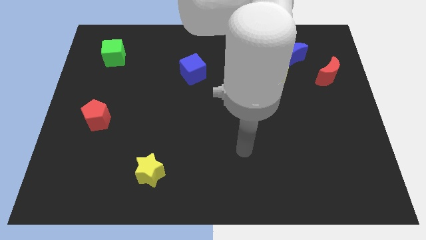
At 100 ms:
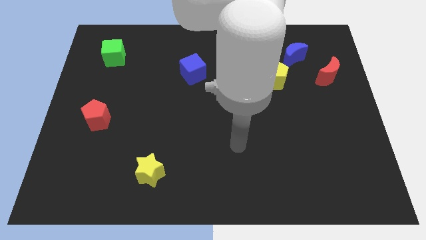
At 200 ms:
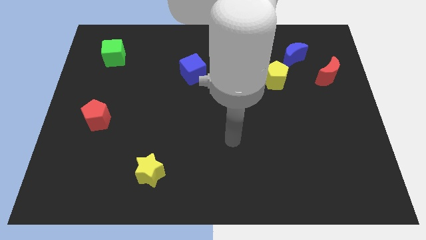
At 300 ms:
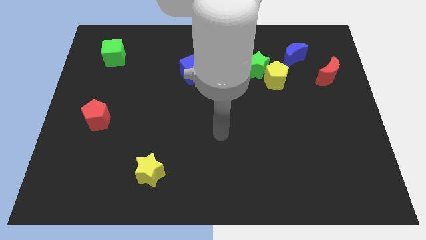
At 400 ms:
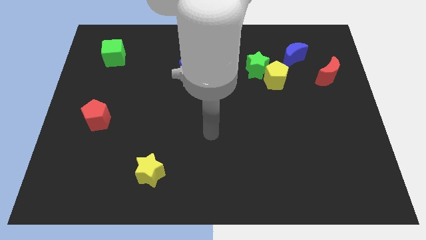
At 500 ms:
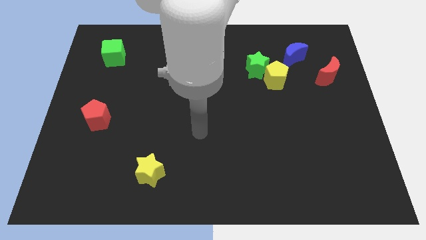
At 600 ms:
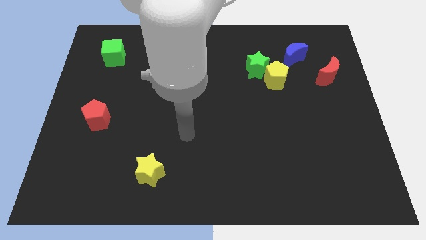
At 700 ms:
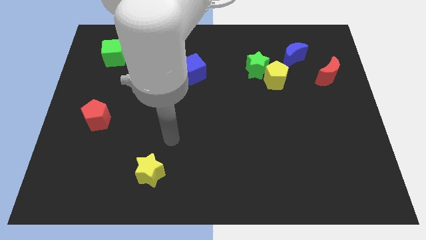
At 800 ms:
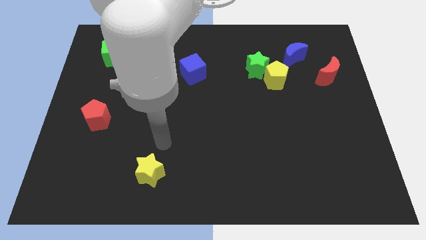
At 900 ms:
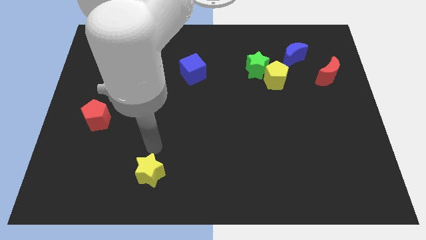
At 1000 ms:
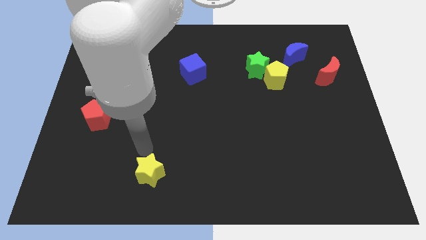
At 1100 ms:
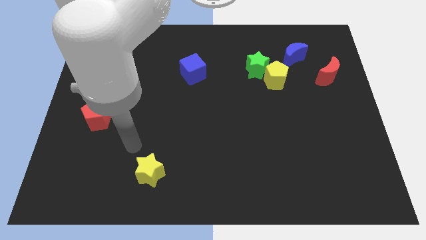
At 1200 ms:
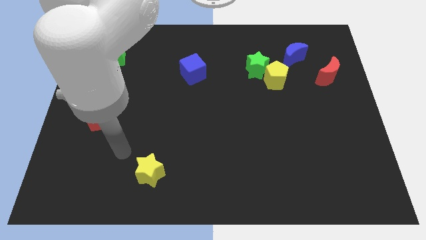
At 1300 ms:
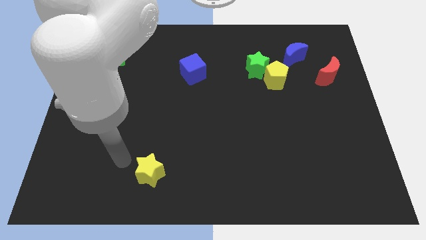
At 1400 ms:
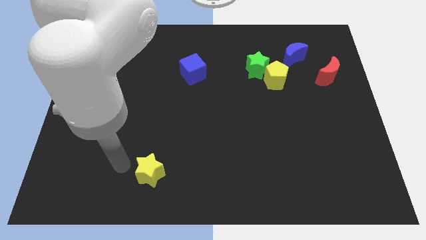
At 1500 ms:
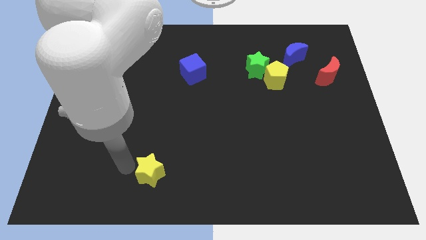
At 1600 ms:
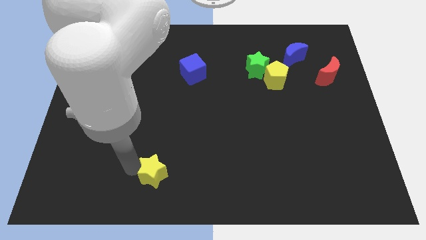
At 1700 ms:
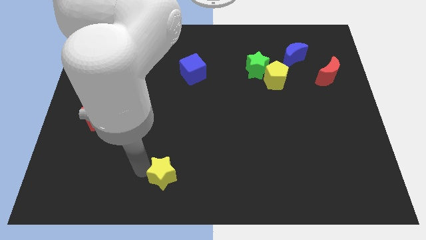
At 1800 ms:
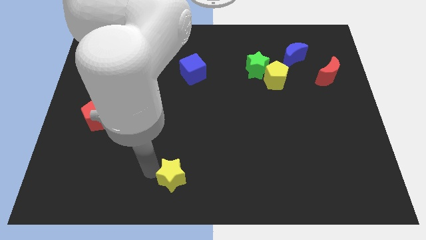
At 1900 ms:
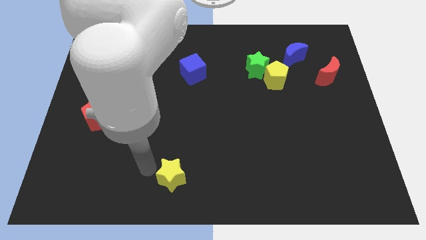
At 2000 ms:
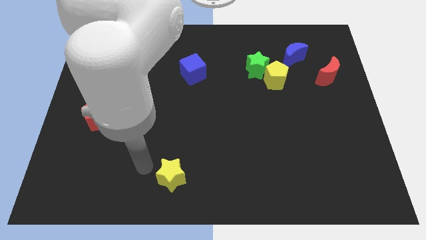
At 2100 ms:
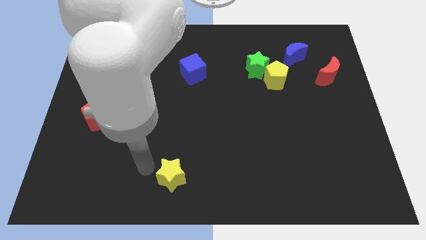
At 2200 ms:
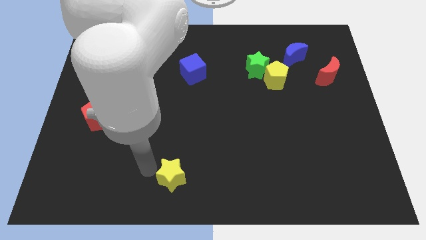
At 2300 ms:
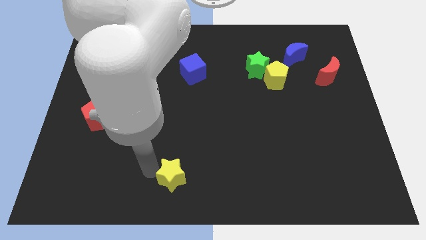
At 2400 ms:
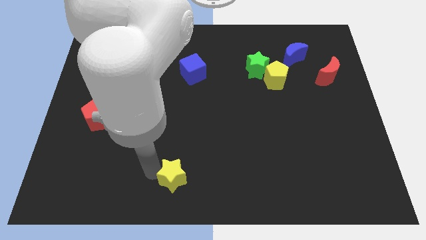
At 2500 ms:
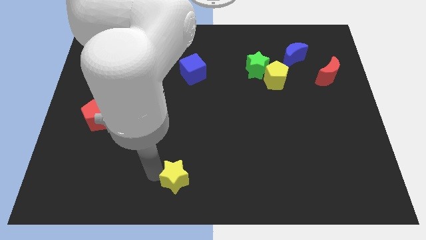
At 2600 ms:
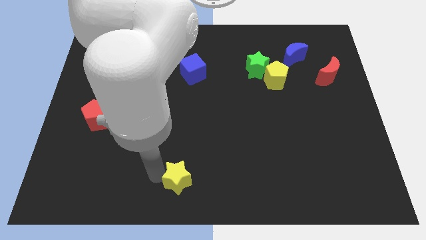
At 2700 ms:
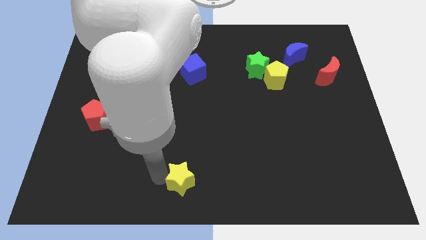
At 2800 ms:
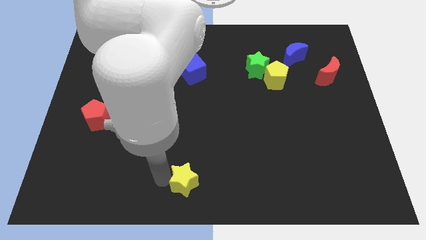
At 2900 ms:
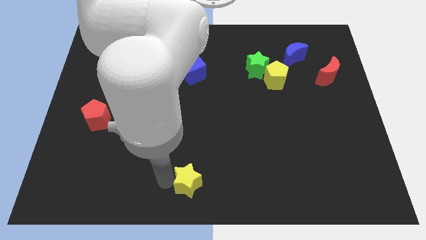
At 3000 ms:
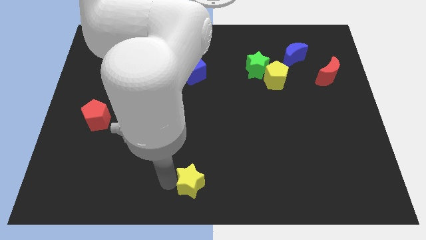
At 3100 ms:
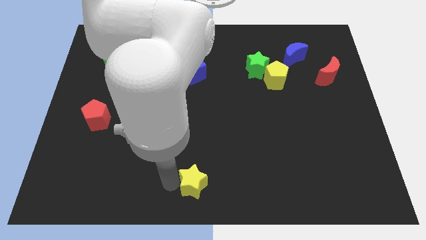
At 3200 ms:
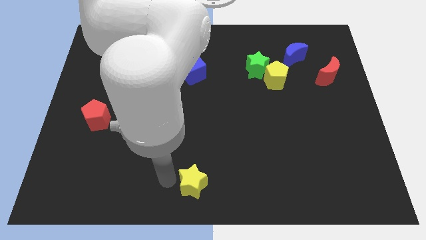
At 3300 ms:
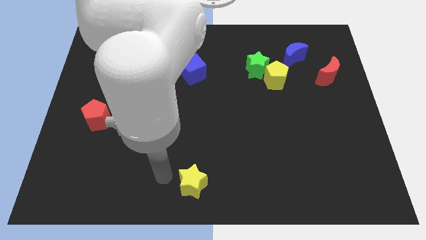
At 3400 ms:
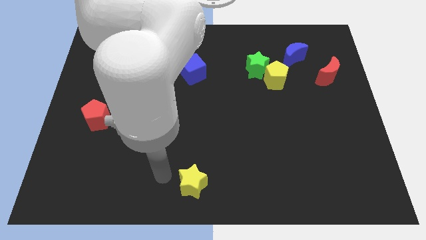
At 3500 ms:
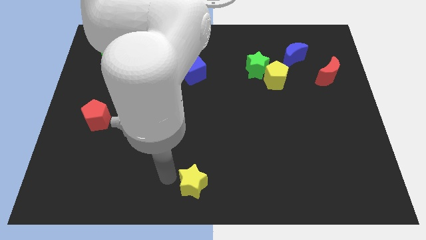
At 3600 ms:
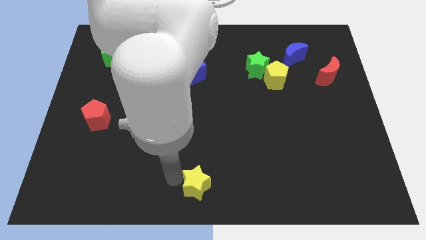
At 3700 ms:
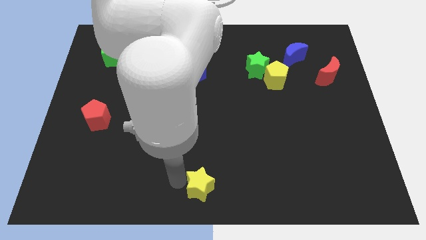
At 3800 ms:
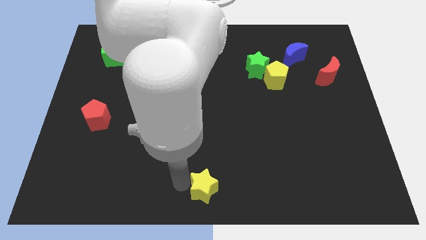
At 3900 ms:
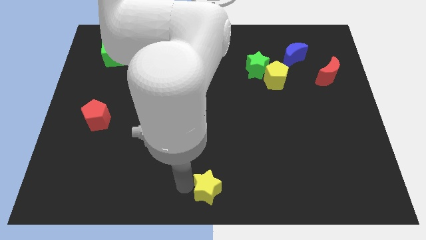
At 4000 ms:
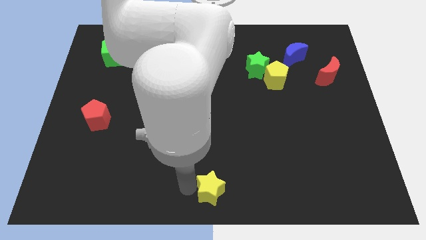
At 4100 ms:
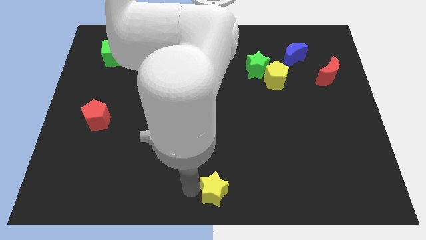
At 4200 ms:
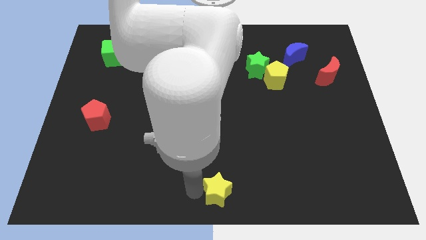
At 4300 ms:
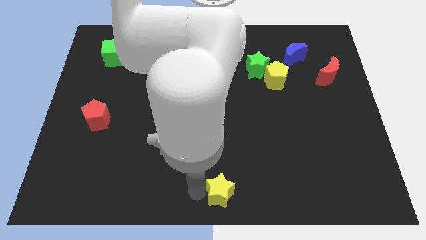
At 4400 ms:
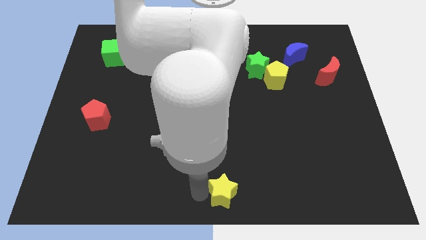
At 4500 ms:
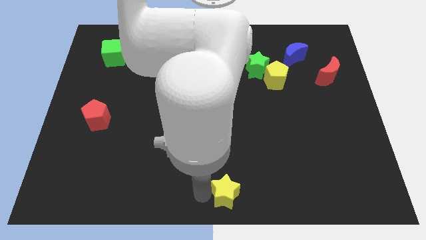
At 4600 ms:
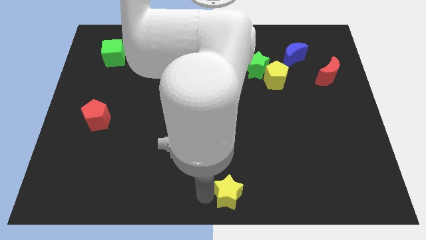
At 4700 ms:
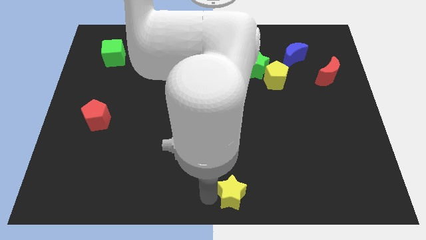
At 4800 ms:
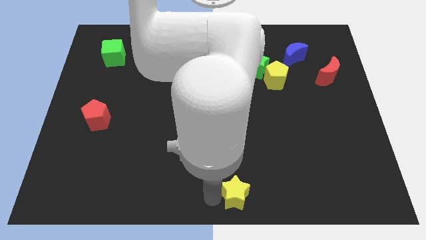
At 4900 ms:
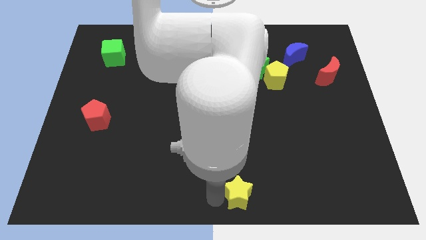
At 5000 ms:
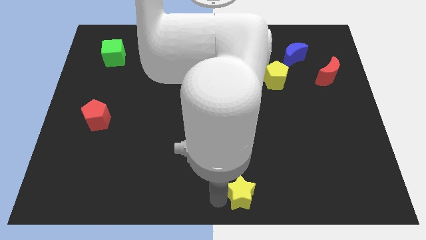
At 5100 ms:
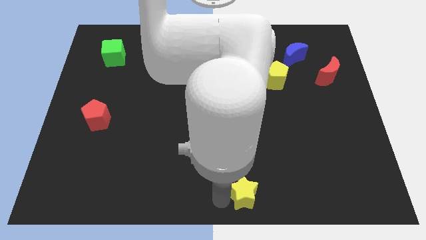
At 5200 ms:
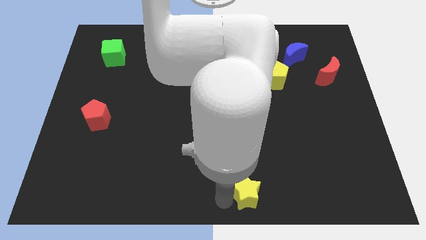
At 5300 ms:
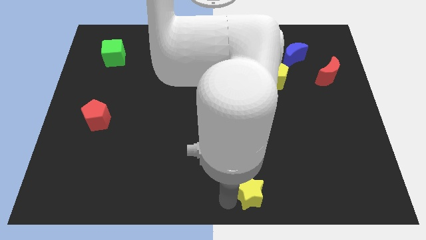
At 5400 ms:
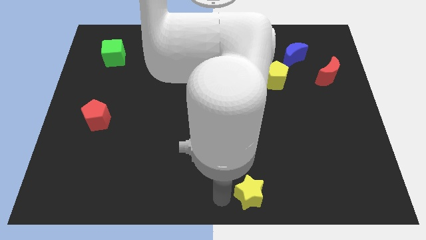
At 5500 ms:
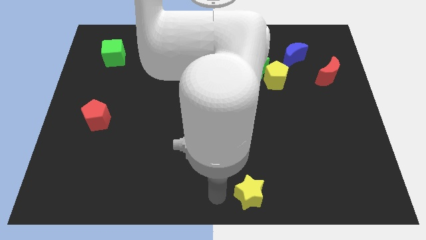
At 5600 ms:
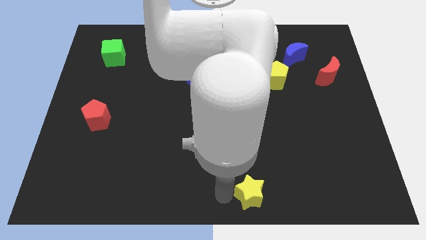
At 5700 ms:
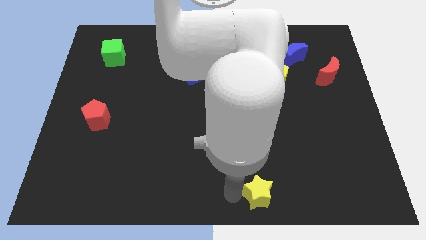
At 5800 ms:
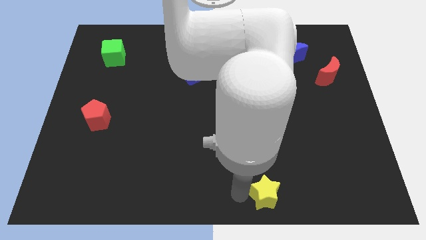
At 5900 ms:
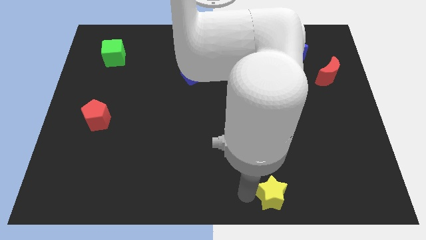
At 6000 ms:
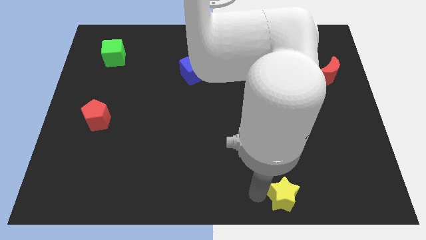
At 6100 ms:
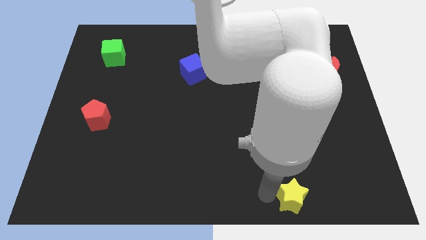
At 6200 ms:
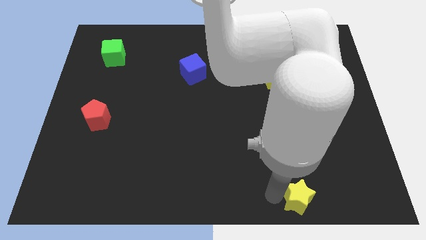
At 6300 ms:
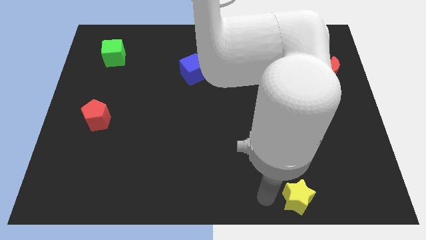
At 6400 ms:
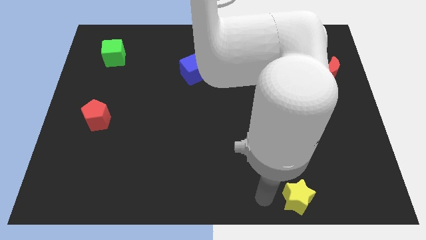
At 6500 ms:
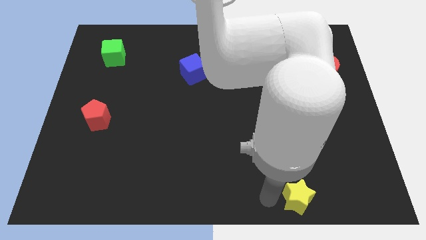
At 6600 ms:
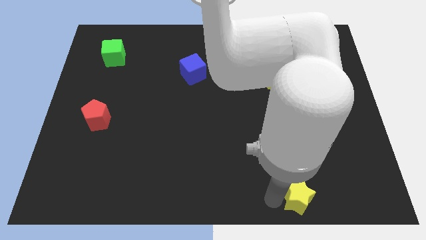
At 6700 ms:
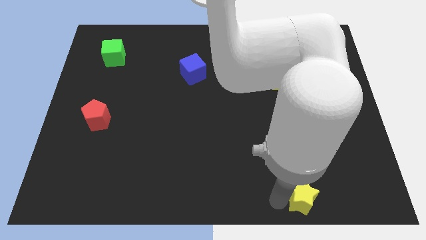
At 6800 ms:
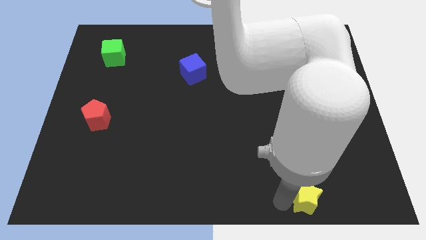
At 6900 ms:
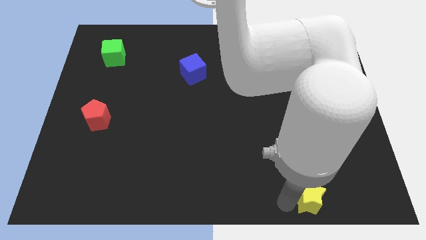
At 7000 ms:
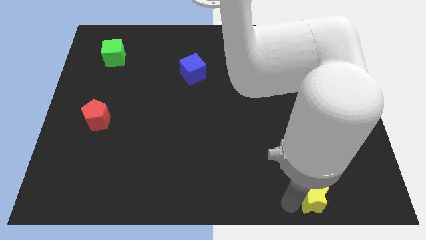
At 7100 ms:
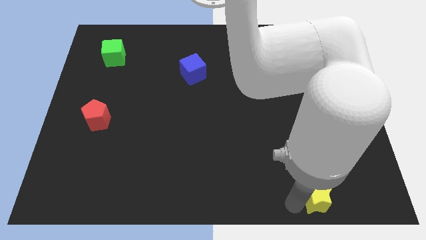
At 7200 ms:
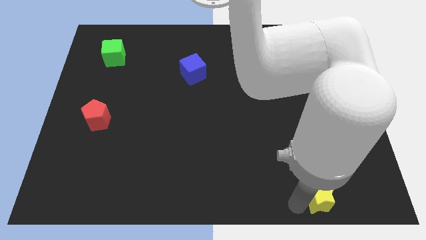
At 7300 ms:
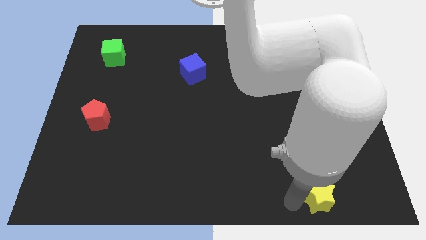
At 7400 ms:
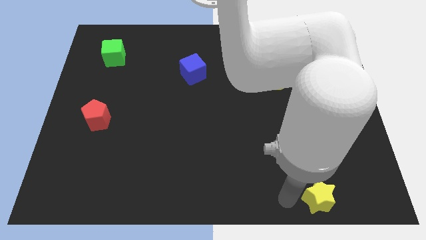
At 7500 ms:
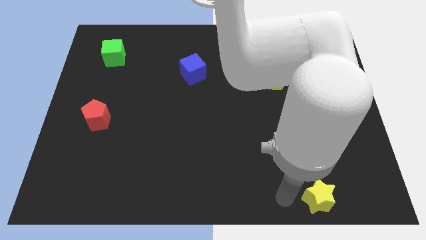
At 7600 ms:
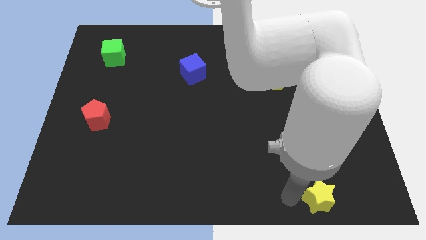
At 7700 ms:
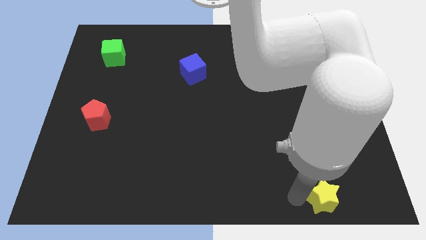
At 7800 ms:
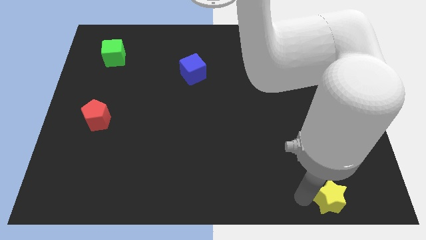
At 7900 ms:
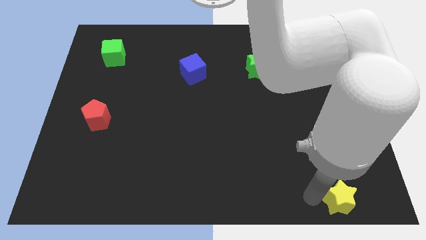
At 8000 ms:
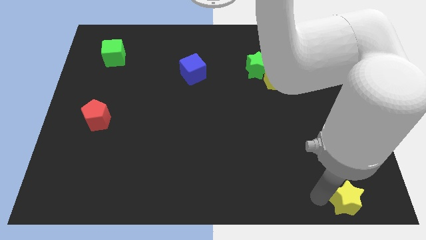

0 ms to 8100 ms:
slide the yellow star to the bottom right of the board
